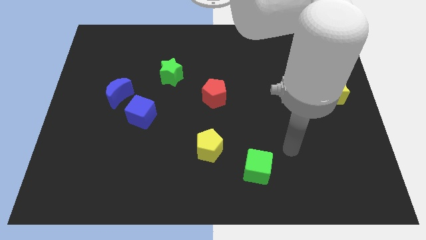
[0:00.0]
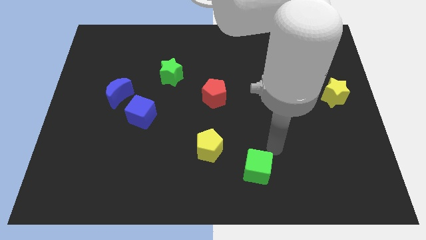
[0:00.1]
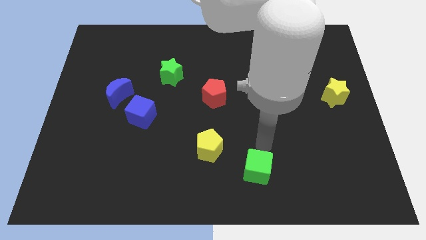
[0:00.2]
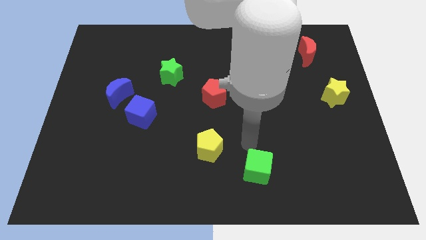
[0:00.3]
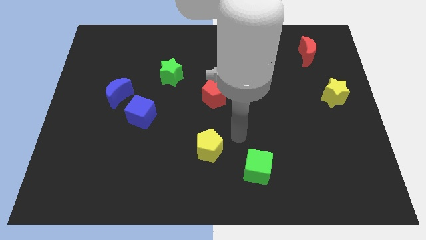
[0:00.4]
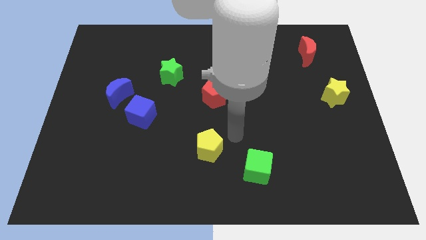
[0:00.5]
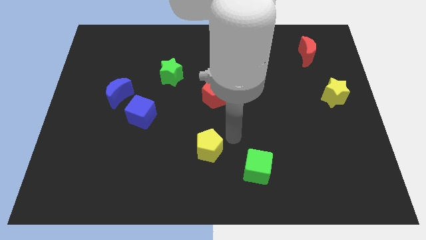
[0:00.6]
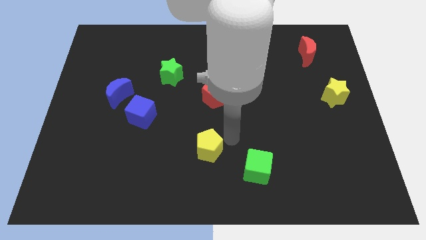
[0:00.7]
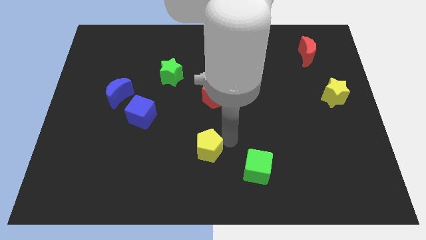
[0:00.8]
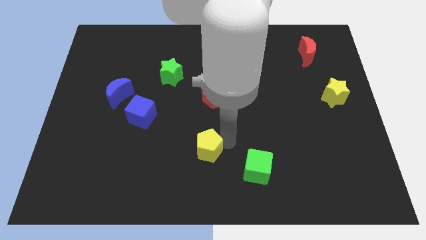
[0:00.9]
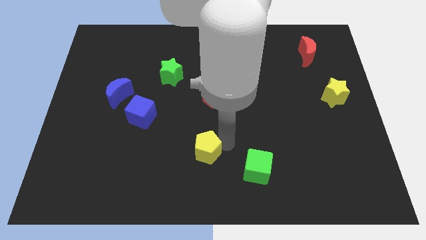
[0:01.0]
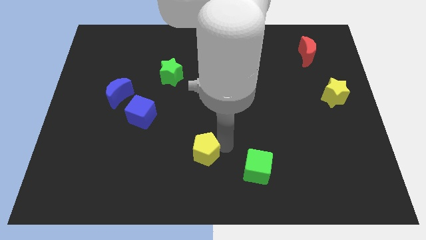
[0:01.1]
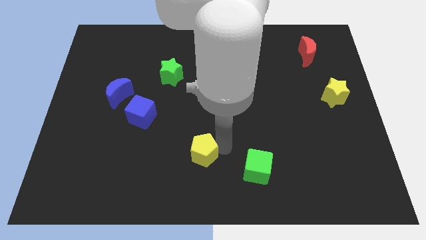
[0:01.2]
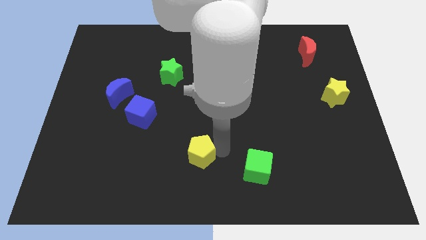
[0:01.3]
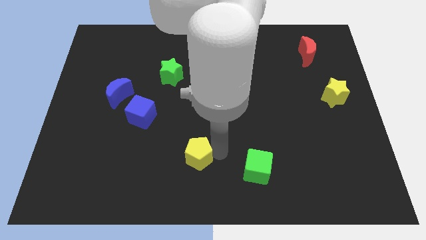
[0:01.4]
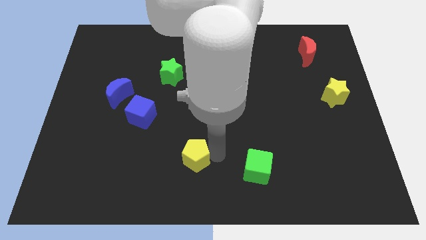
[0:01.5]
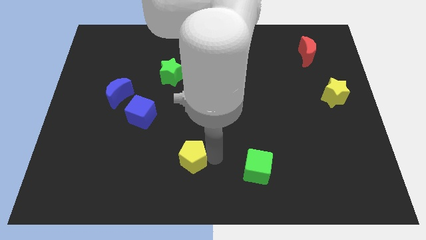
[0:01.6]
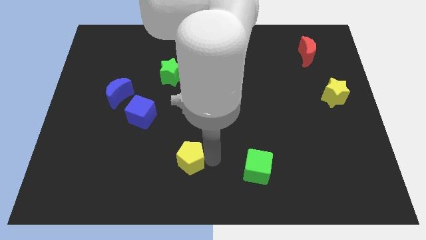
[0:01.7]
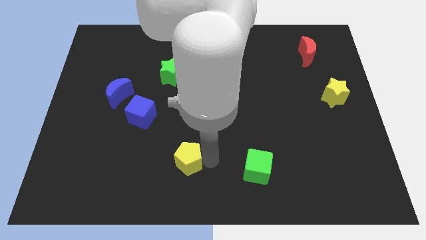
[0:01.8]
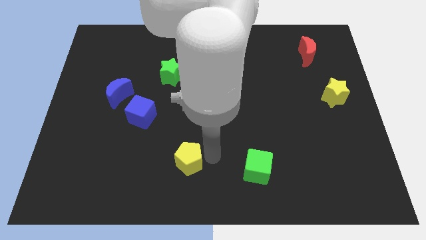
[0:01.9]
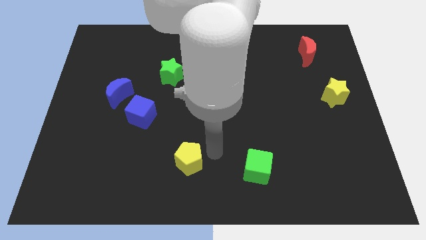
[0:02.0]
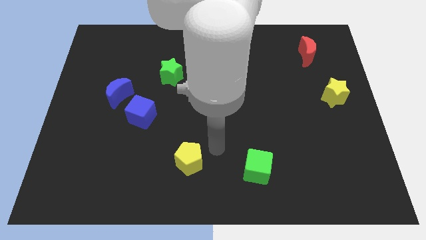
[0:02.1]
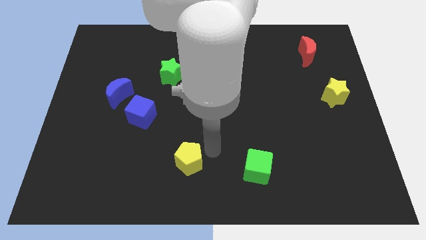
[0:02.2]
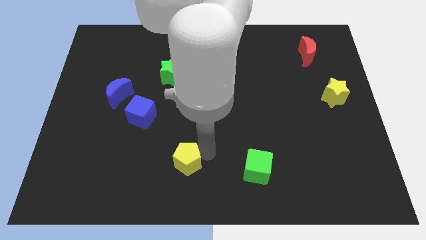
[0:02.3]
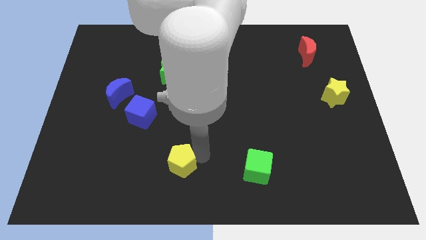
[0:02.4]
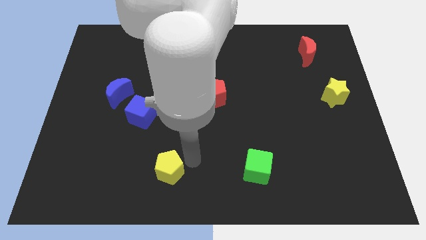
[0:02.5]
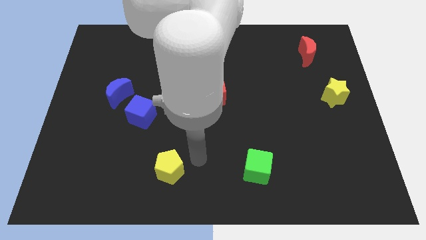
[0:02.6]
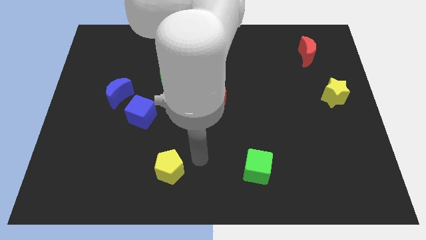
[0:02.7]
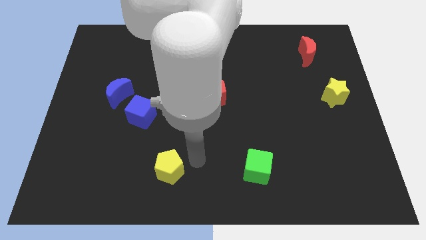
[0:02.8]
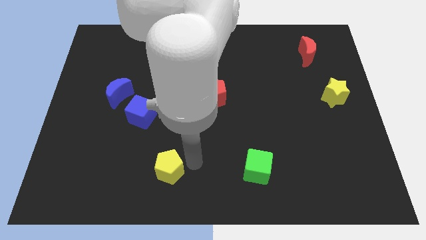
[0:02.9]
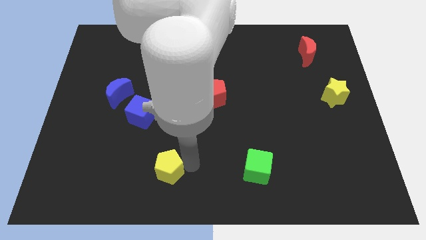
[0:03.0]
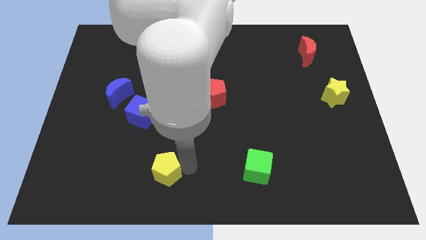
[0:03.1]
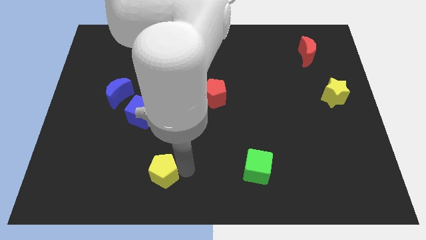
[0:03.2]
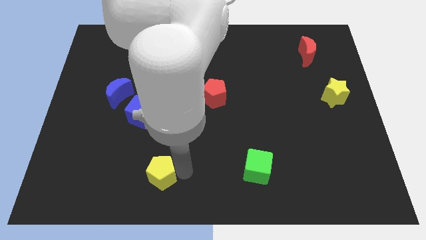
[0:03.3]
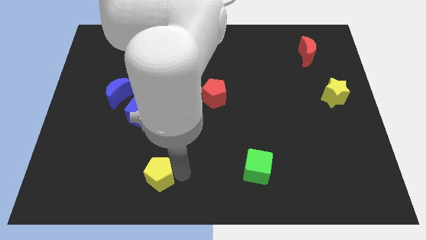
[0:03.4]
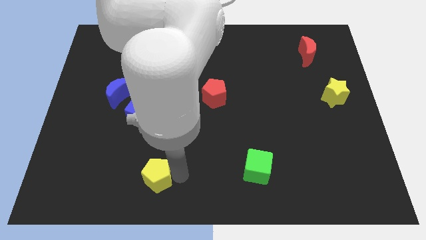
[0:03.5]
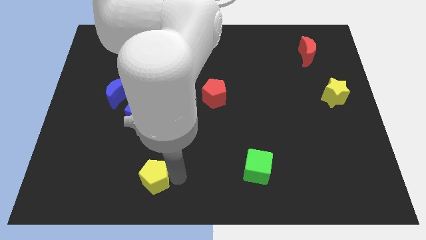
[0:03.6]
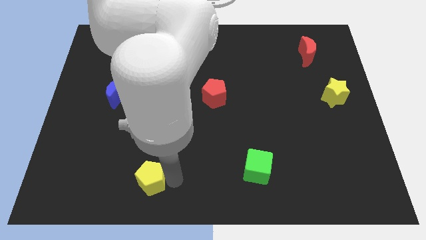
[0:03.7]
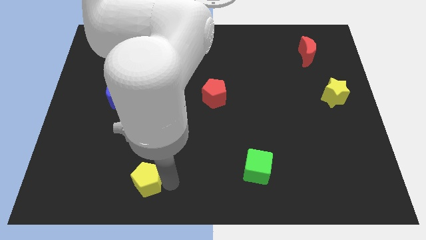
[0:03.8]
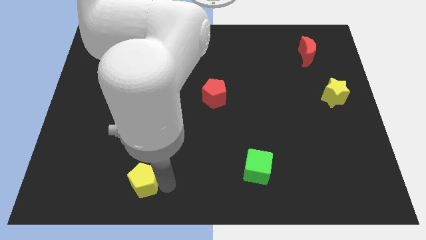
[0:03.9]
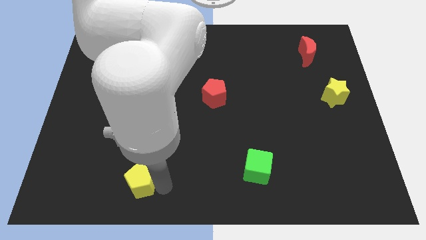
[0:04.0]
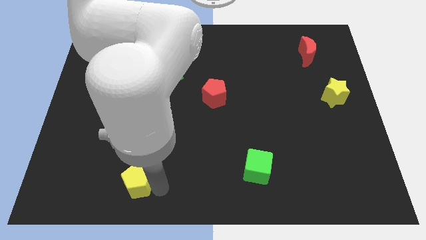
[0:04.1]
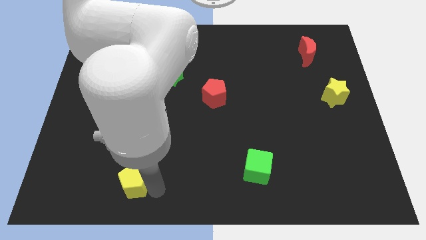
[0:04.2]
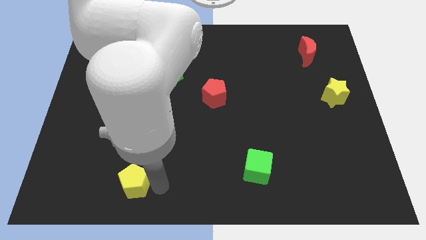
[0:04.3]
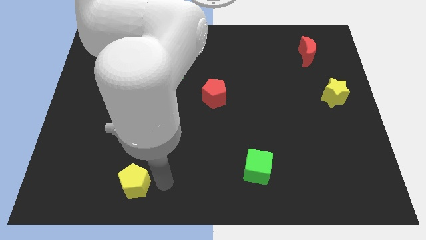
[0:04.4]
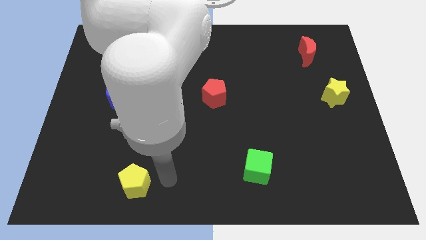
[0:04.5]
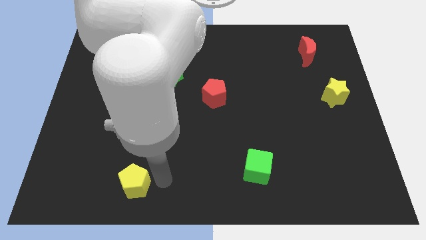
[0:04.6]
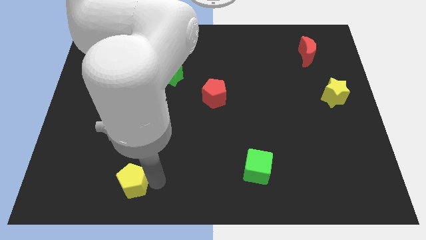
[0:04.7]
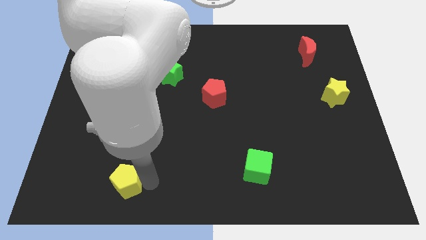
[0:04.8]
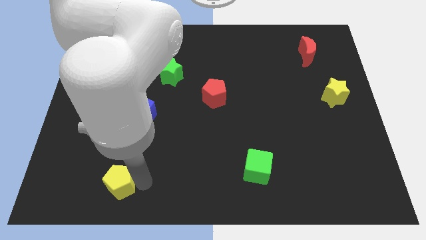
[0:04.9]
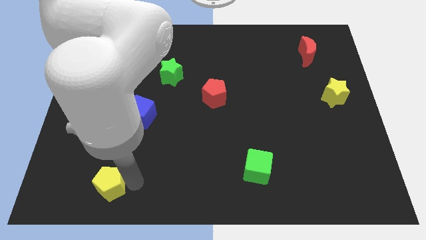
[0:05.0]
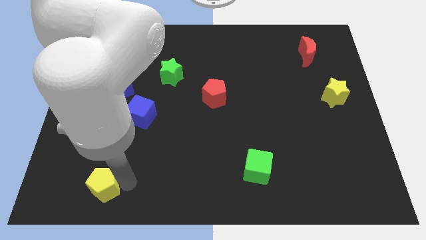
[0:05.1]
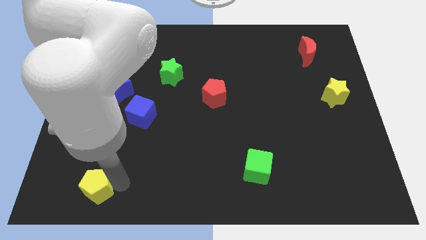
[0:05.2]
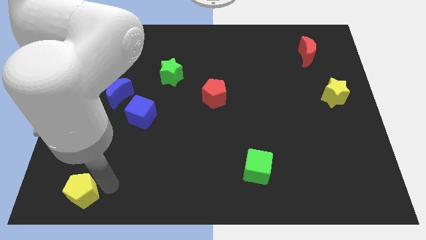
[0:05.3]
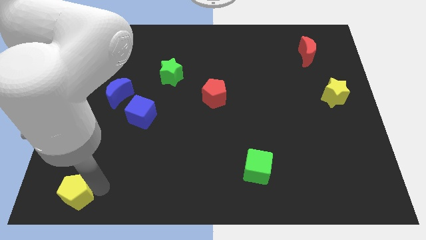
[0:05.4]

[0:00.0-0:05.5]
put the yellow pentagon to the bottom left

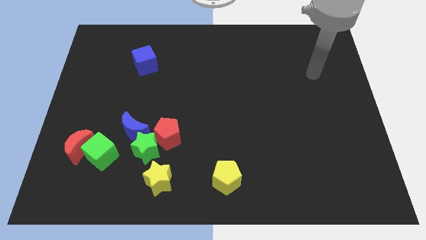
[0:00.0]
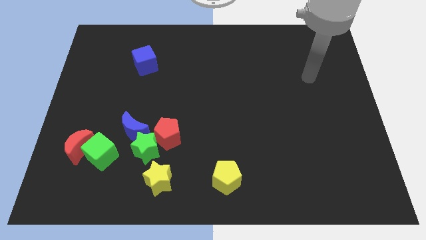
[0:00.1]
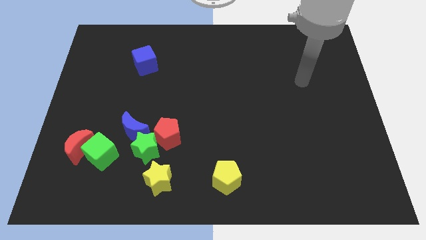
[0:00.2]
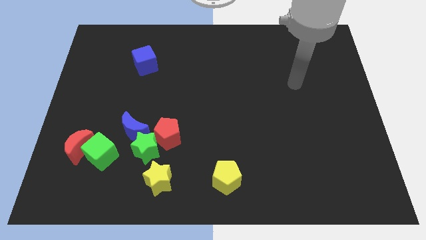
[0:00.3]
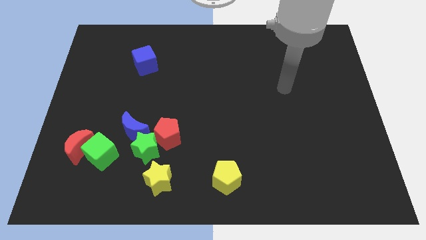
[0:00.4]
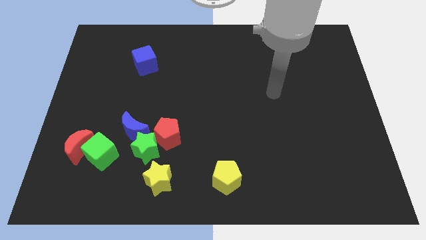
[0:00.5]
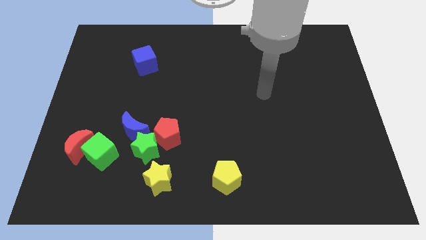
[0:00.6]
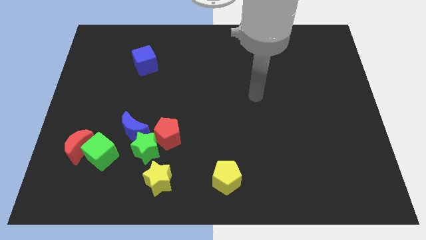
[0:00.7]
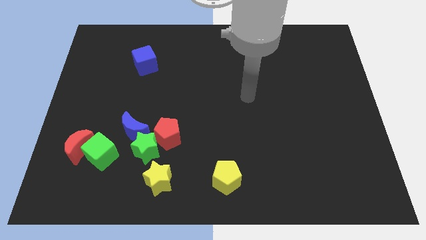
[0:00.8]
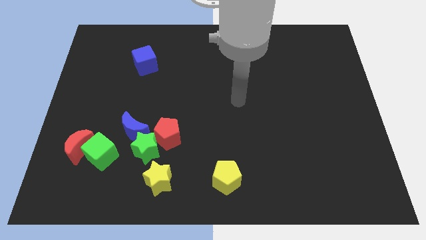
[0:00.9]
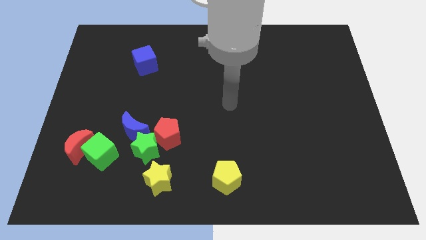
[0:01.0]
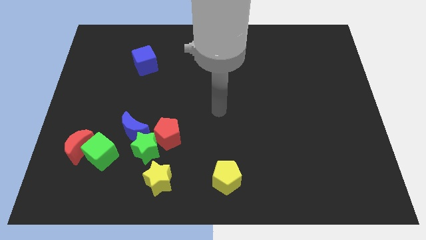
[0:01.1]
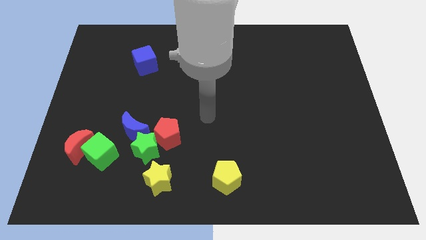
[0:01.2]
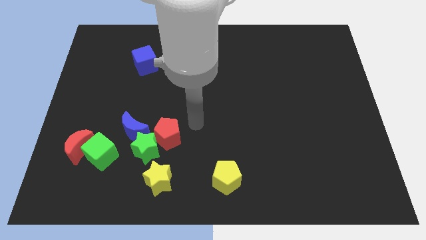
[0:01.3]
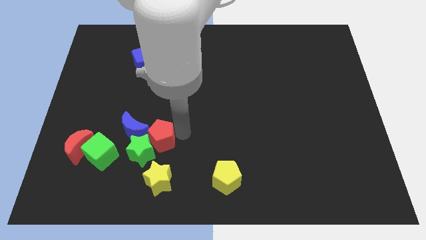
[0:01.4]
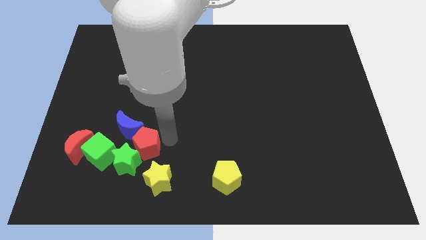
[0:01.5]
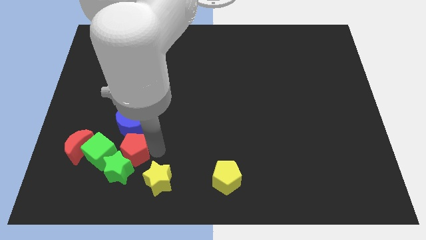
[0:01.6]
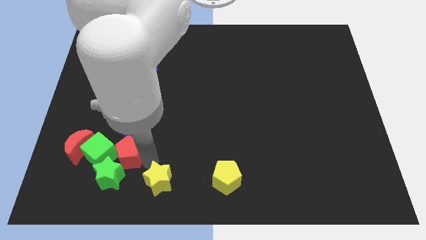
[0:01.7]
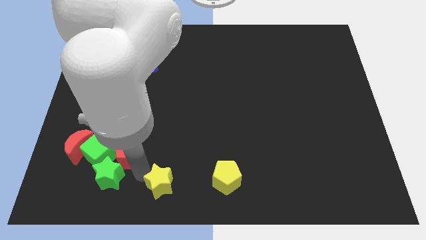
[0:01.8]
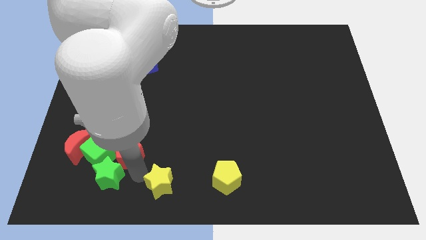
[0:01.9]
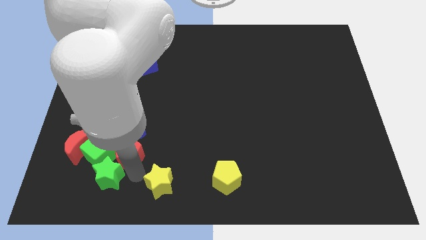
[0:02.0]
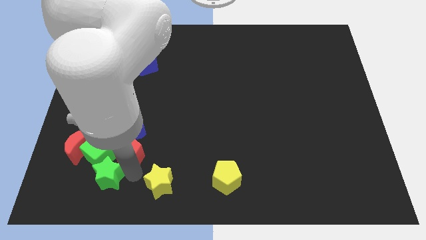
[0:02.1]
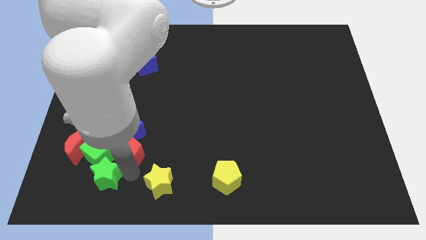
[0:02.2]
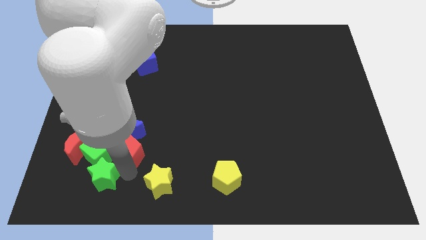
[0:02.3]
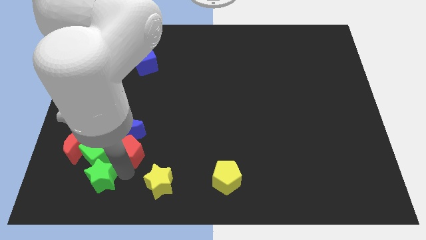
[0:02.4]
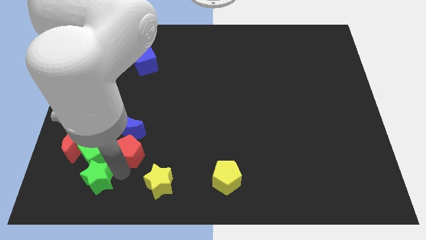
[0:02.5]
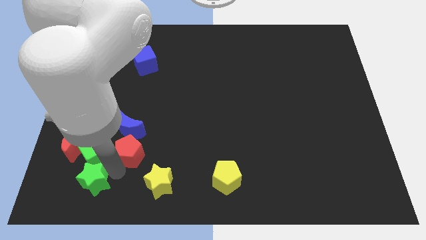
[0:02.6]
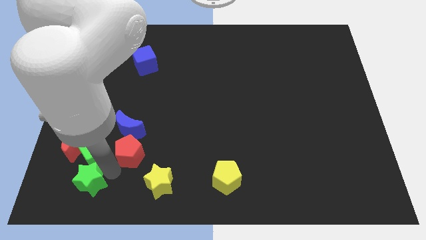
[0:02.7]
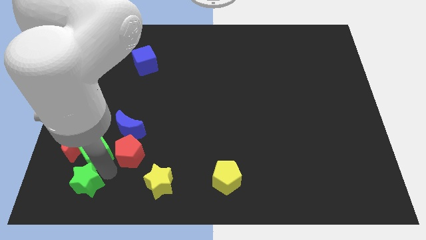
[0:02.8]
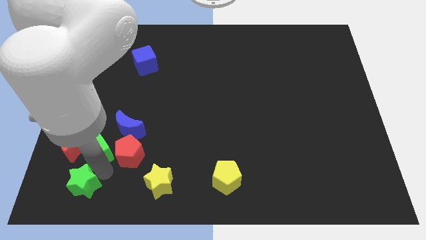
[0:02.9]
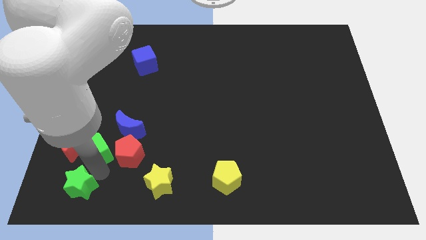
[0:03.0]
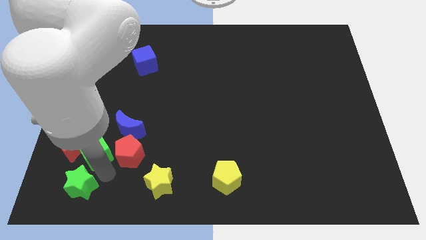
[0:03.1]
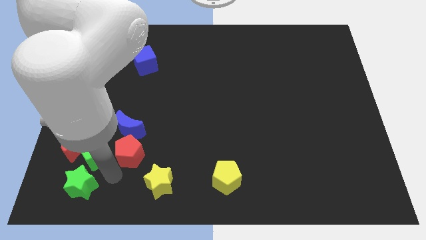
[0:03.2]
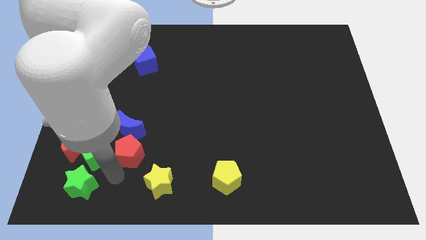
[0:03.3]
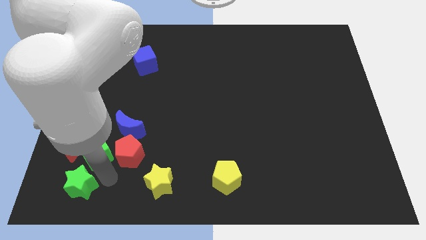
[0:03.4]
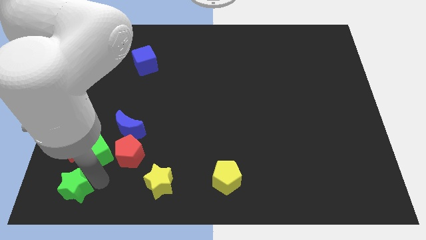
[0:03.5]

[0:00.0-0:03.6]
put the green star to the bottom left corner
